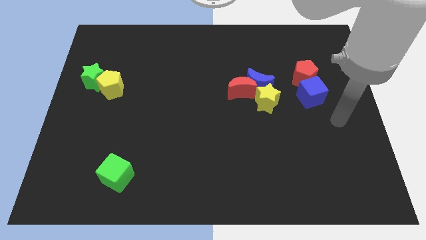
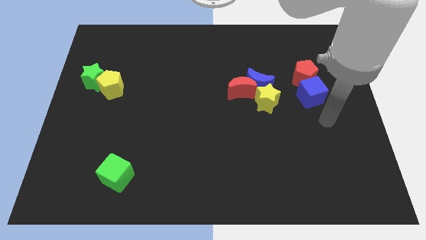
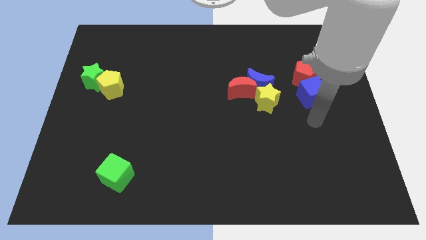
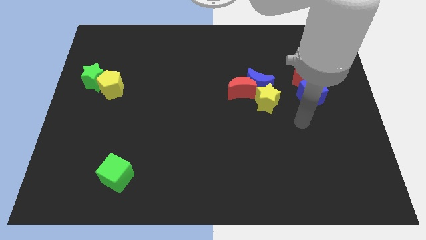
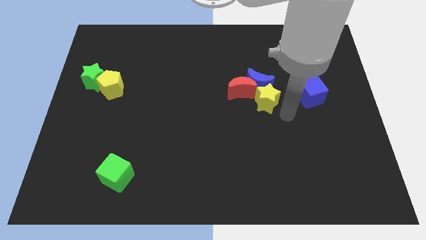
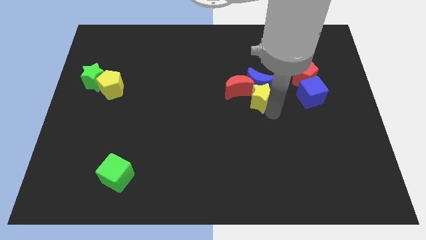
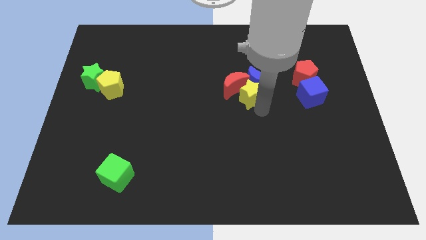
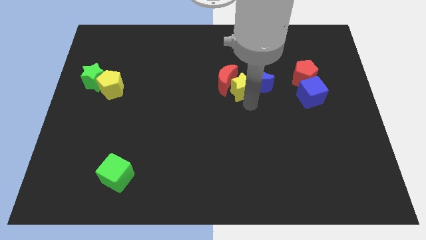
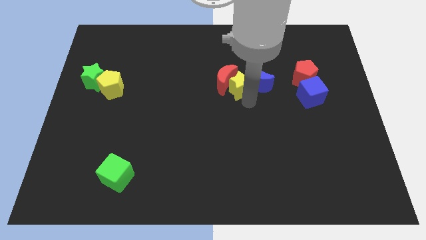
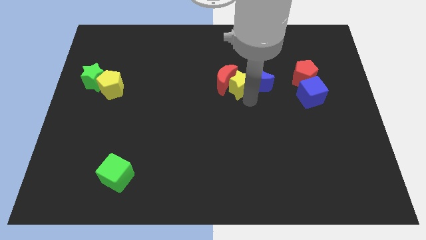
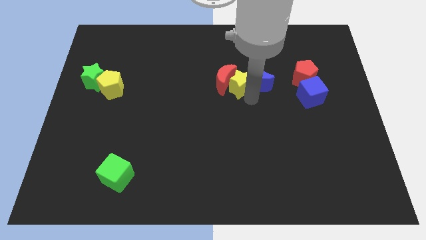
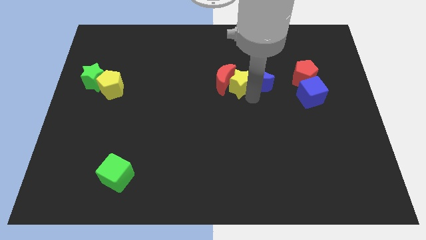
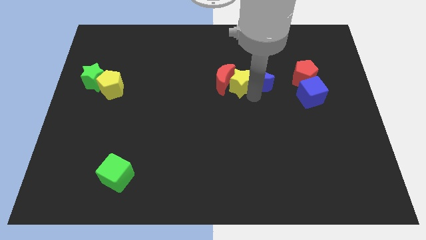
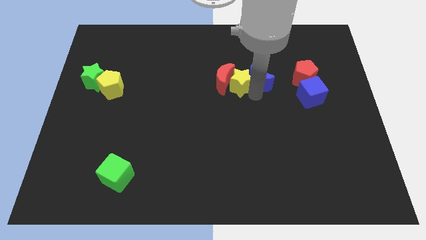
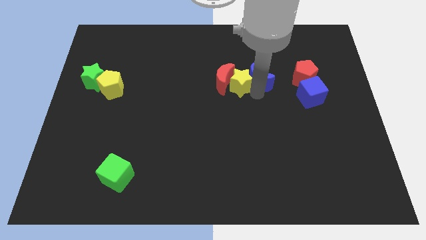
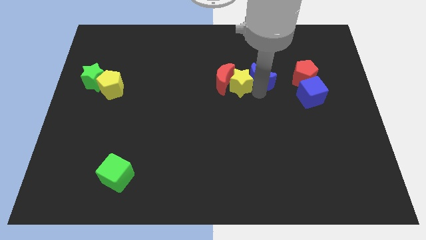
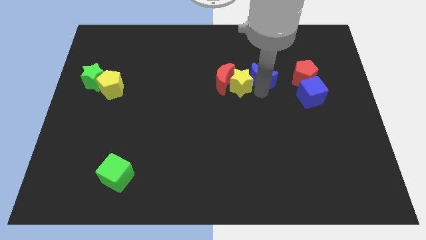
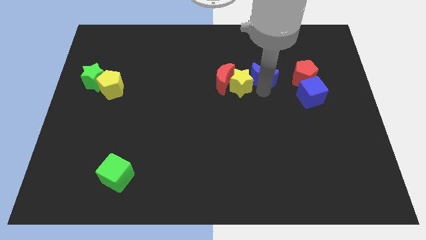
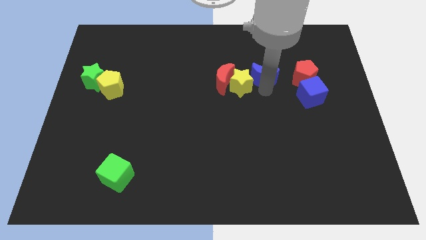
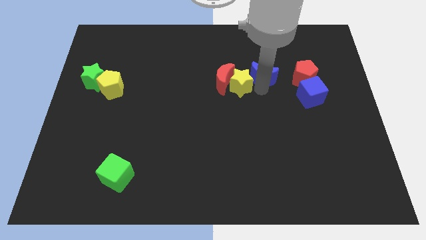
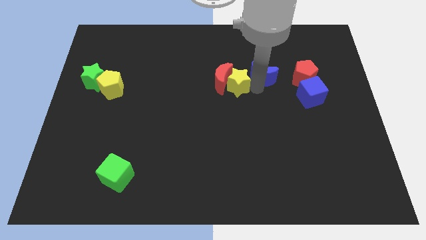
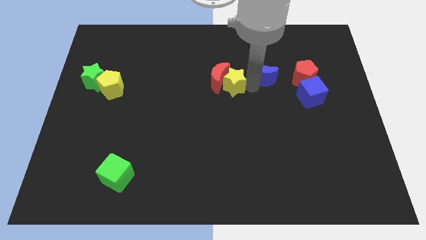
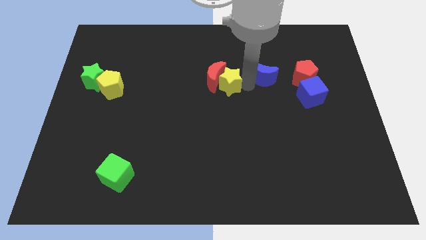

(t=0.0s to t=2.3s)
separate the blue moon from the red moon and yellow star

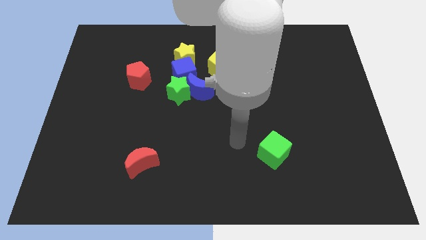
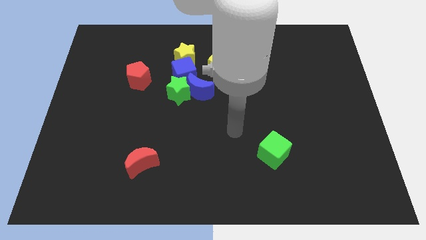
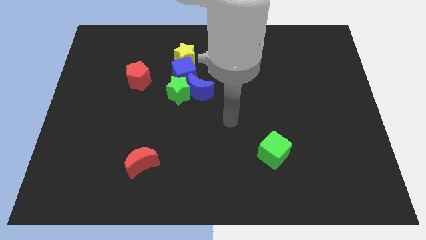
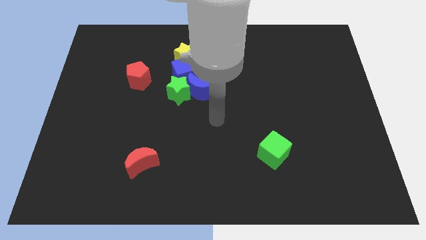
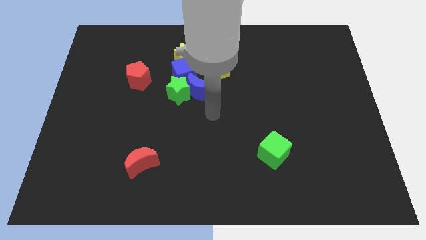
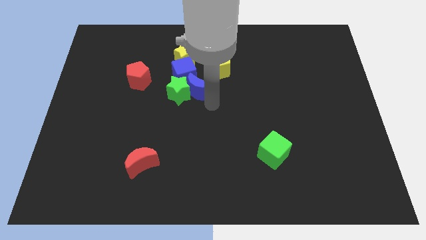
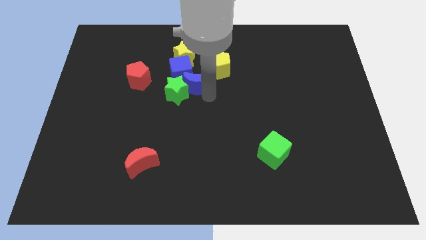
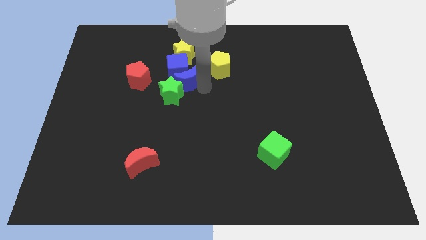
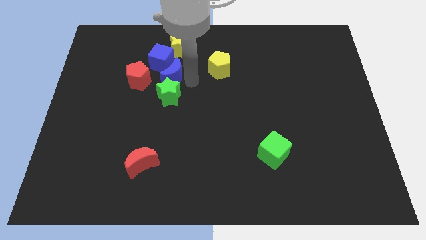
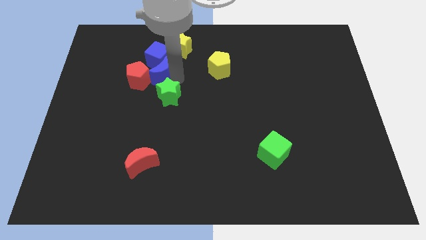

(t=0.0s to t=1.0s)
move the green star away from the blue moon and blue cube

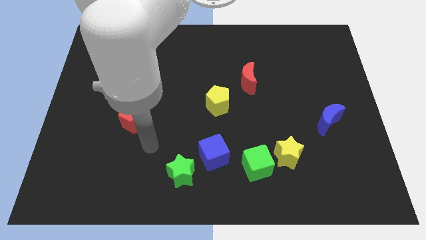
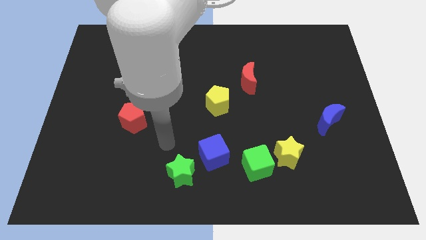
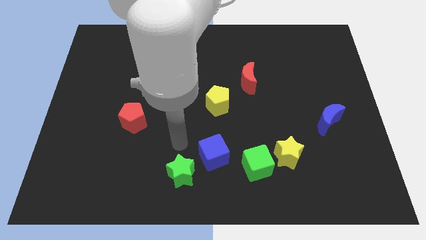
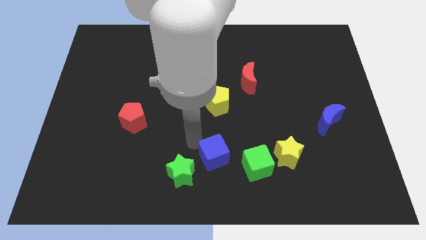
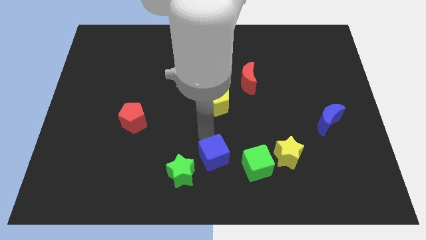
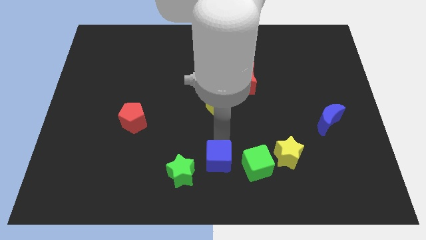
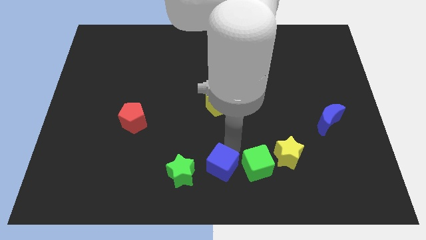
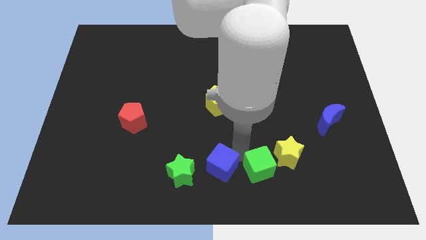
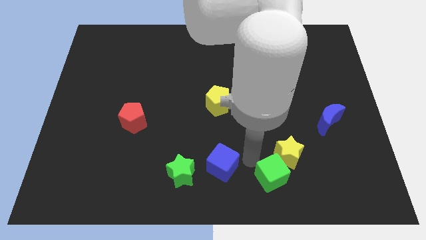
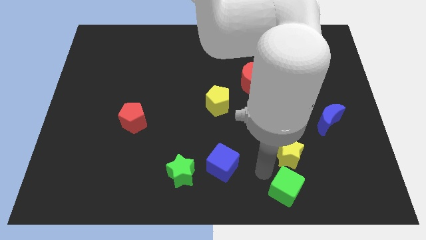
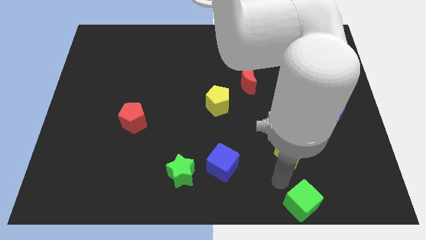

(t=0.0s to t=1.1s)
separate the yellow star from the green cube

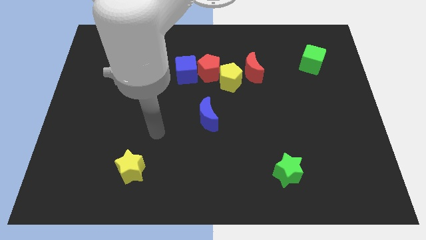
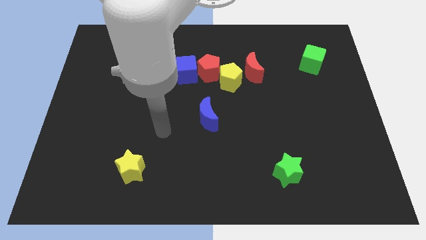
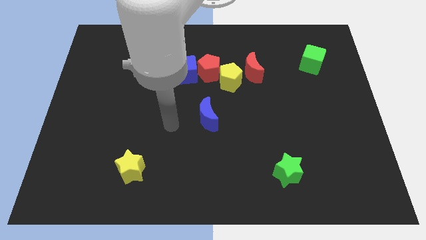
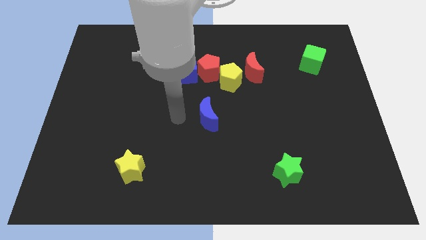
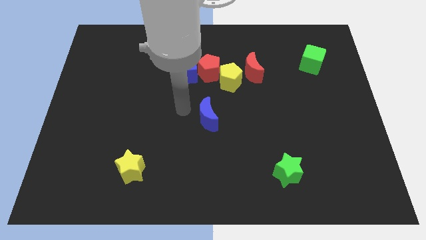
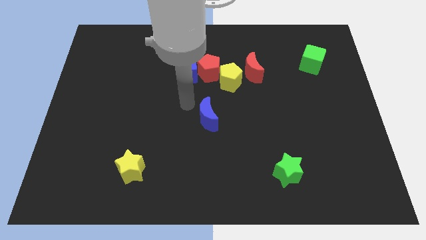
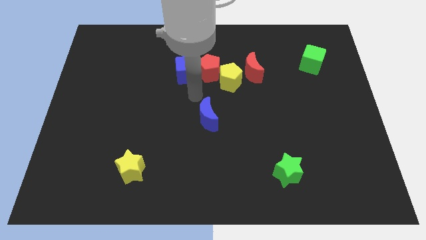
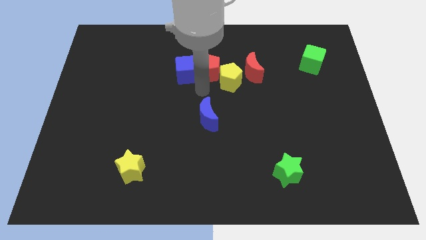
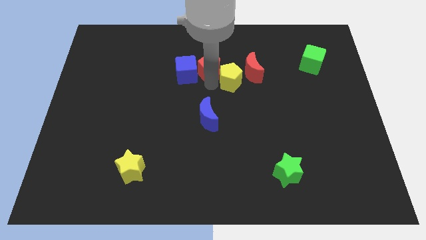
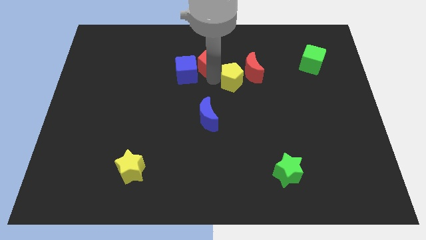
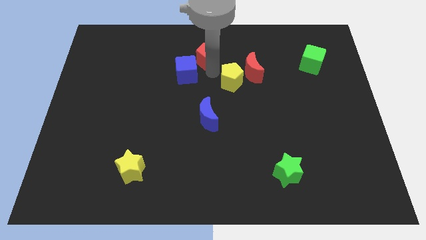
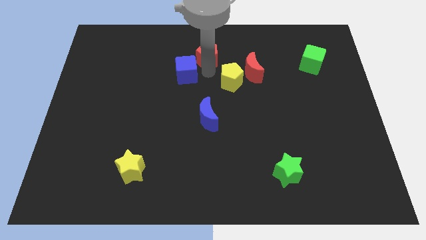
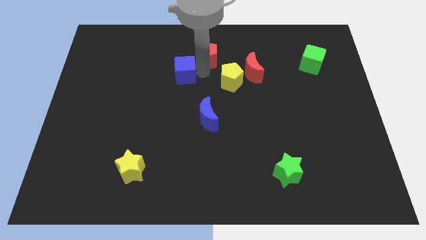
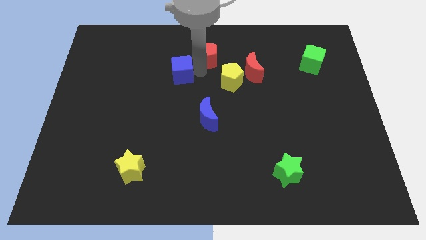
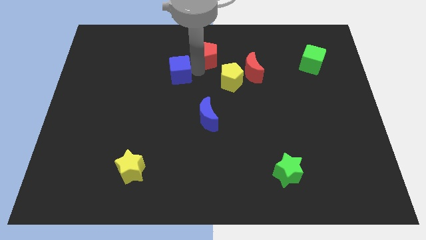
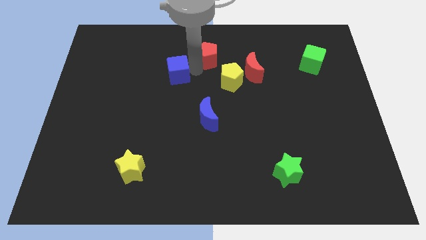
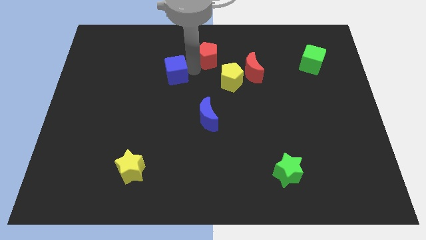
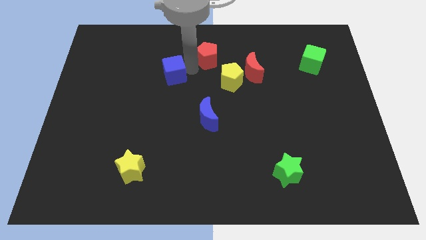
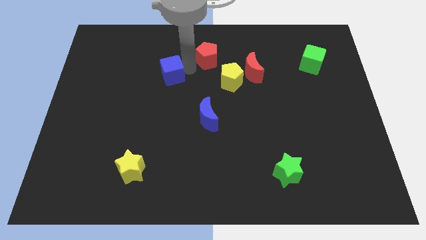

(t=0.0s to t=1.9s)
move the blue cube away from the red pentagon

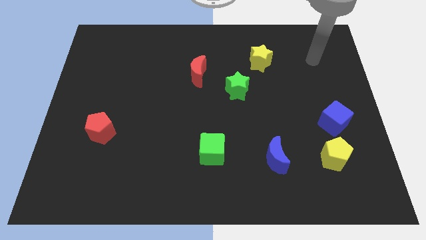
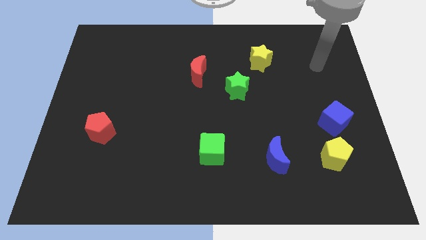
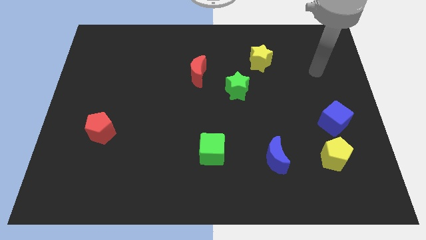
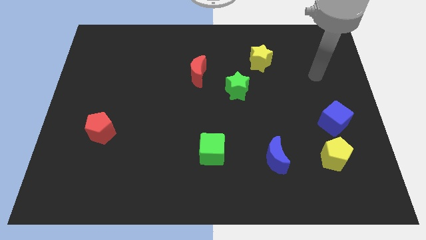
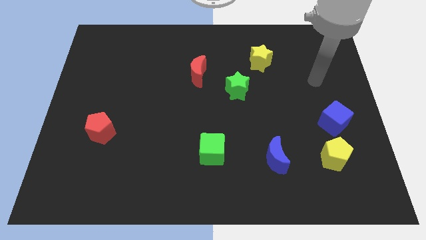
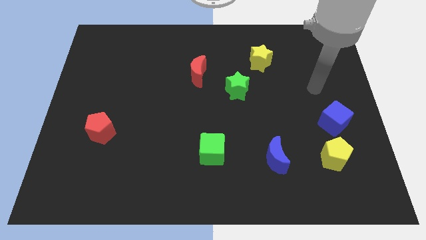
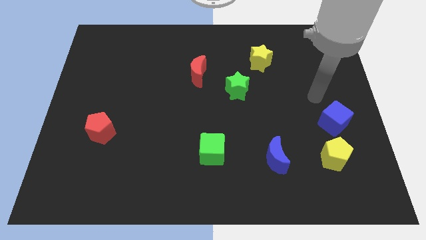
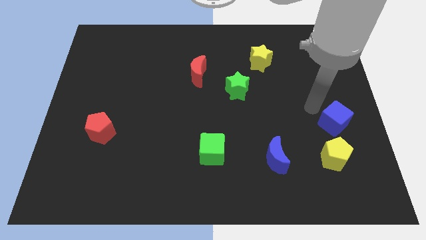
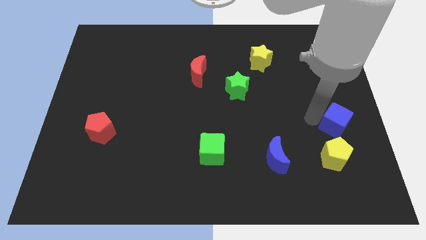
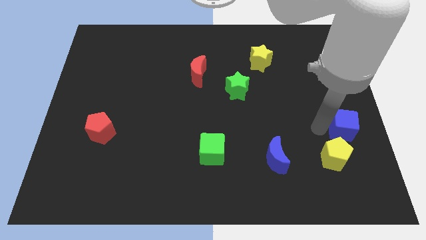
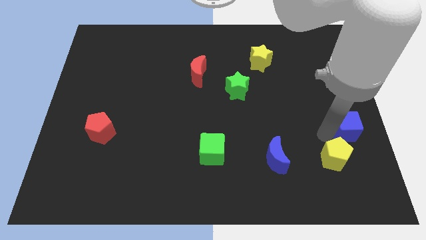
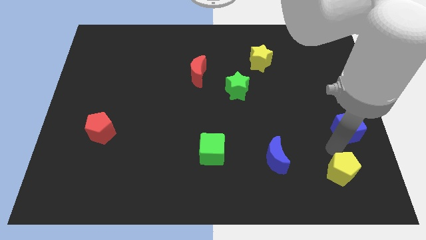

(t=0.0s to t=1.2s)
pull the blue cube apart from the yellow pentagon

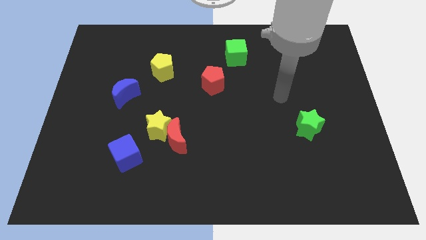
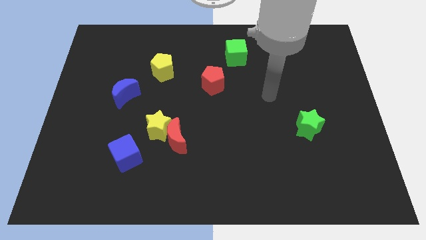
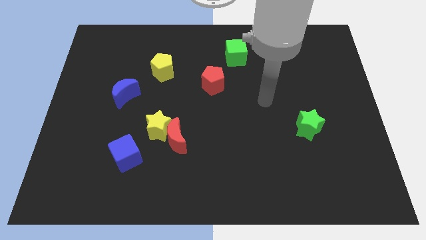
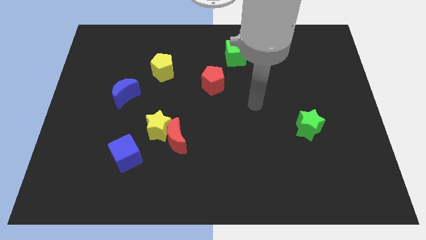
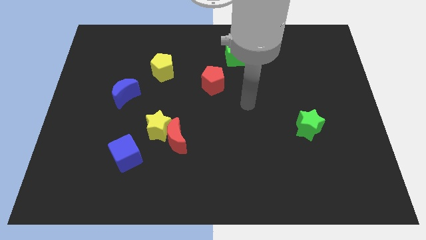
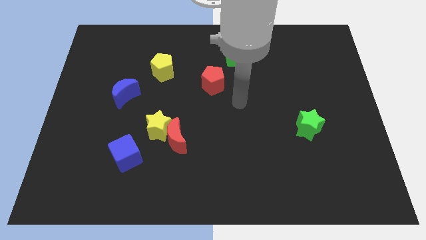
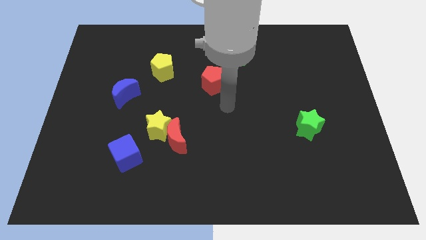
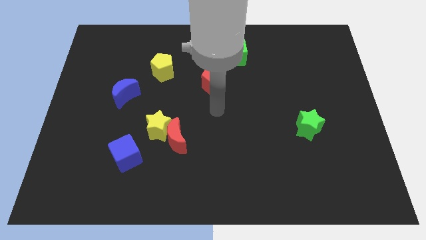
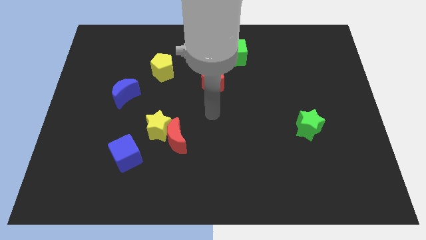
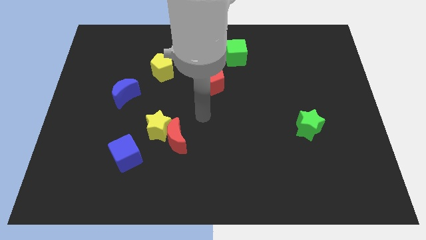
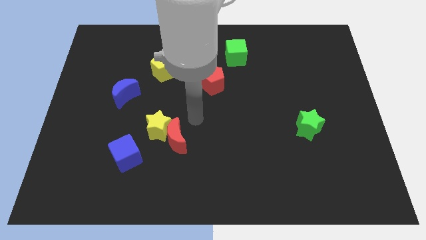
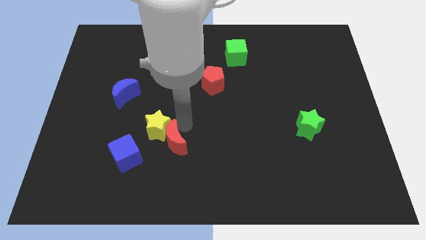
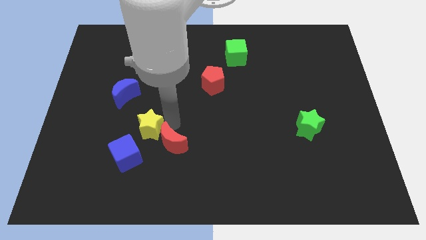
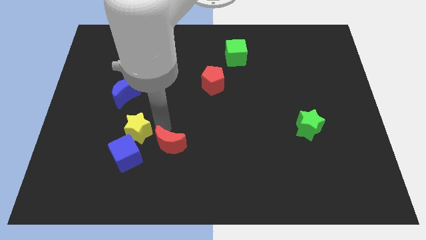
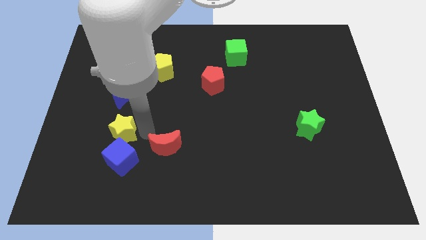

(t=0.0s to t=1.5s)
move the red moon away from the yellow star
